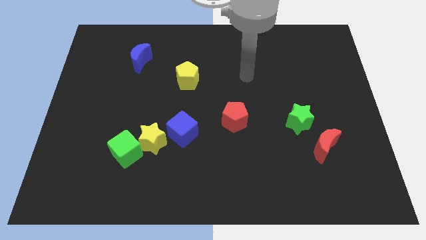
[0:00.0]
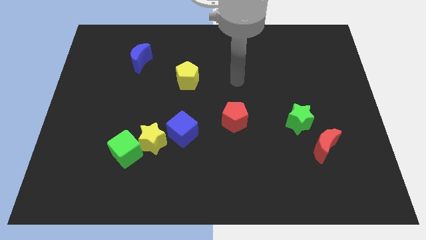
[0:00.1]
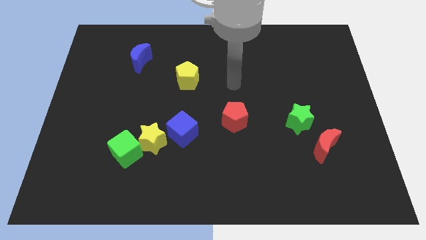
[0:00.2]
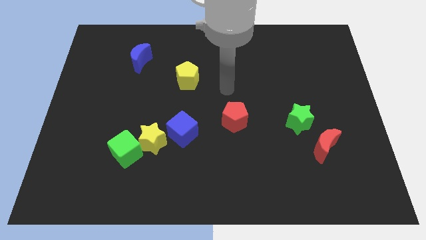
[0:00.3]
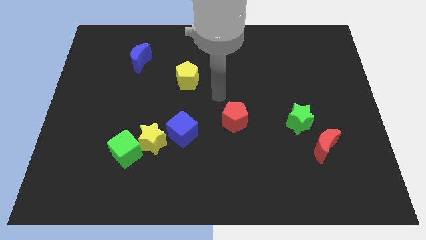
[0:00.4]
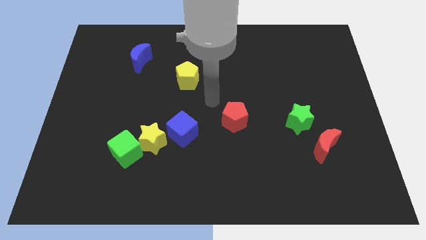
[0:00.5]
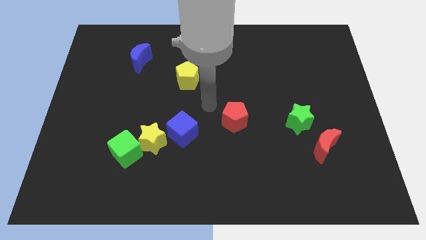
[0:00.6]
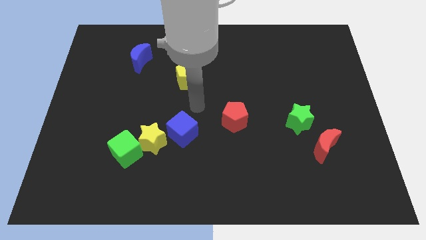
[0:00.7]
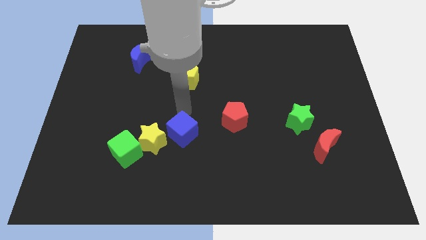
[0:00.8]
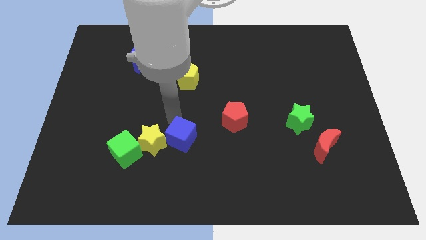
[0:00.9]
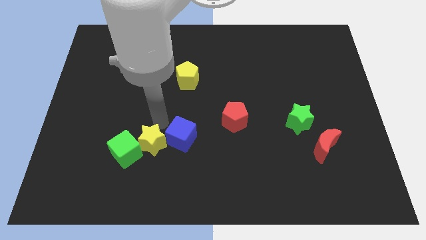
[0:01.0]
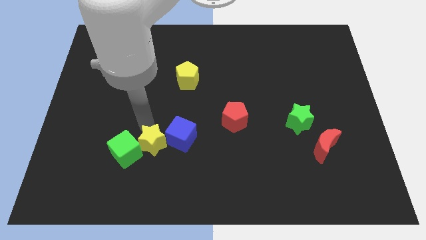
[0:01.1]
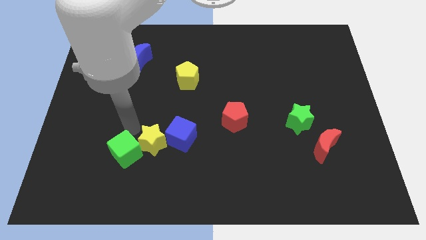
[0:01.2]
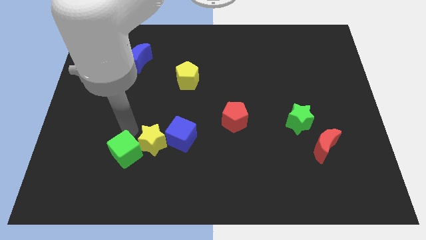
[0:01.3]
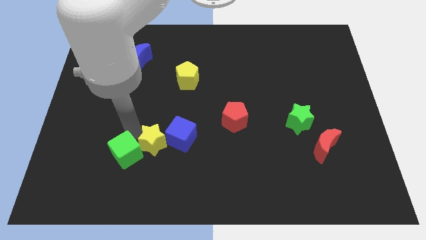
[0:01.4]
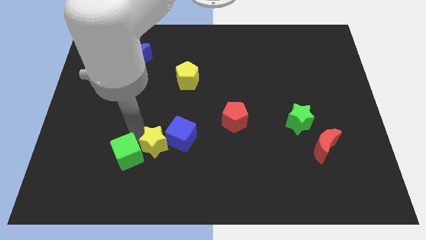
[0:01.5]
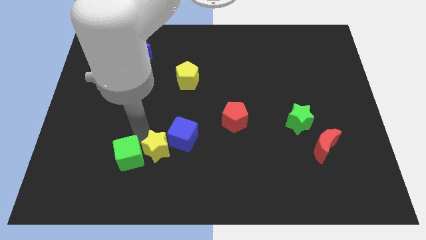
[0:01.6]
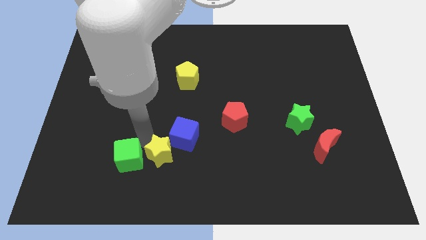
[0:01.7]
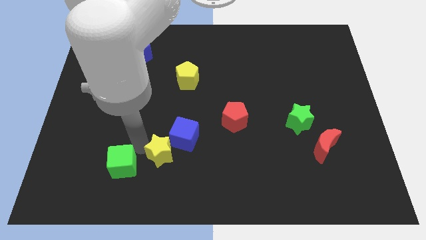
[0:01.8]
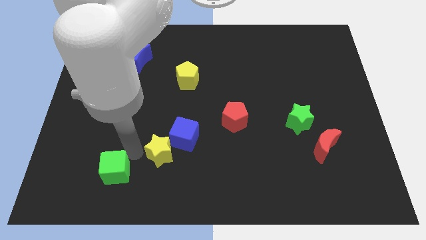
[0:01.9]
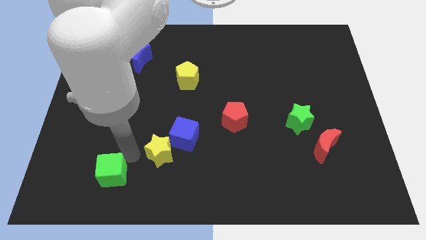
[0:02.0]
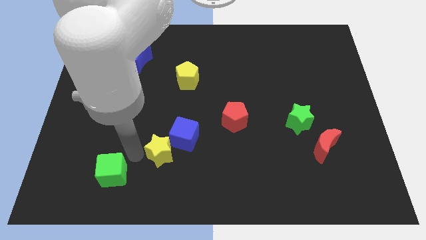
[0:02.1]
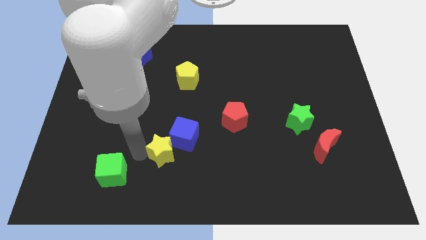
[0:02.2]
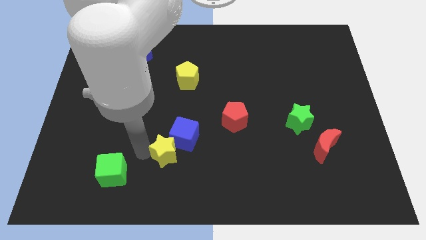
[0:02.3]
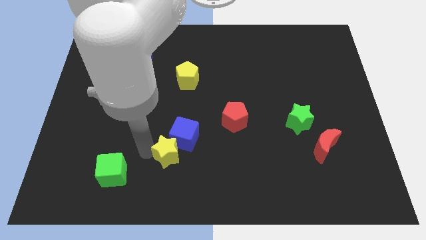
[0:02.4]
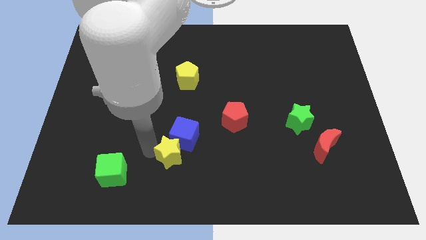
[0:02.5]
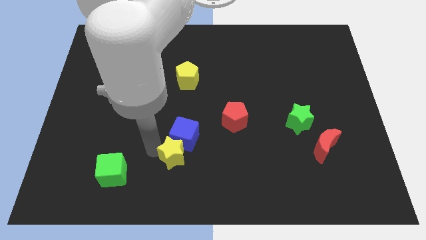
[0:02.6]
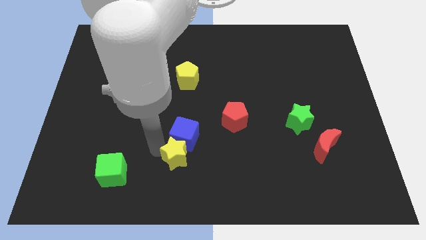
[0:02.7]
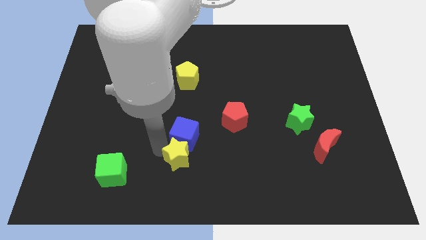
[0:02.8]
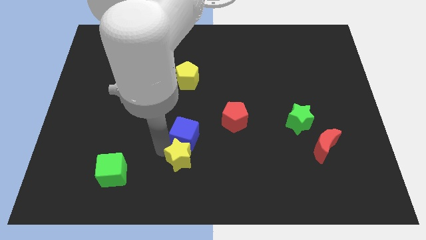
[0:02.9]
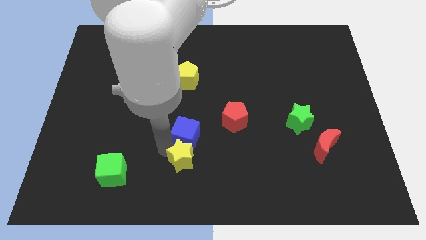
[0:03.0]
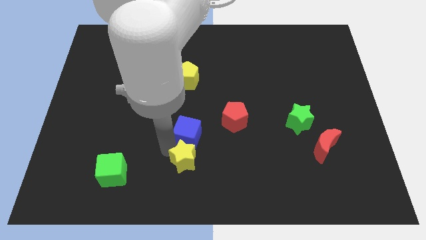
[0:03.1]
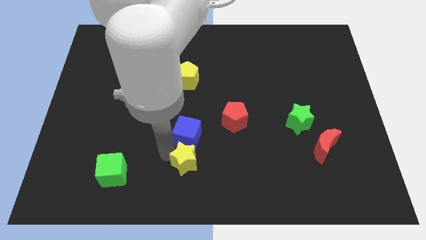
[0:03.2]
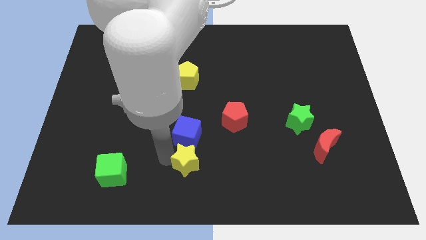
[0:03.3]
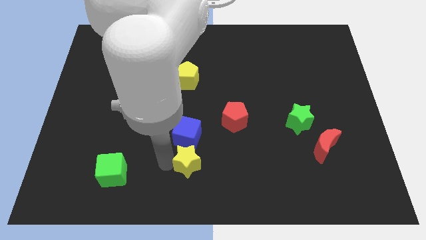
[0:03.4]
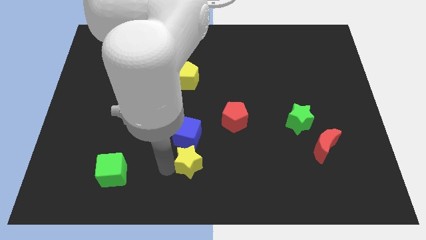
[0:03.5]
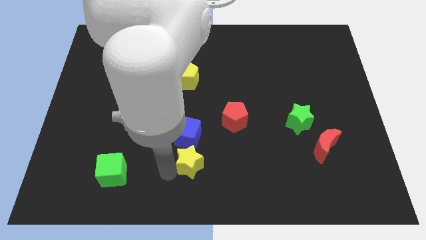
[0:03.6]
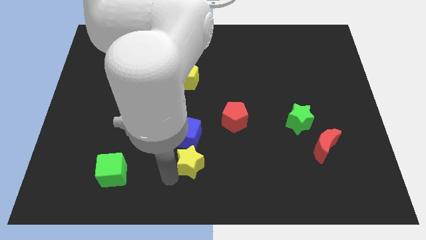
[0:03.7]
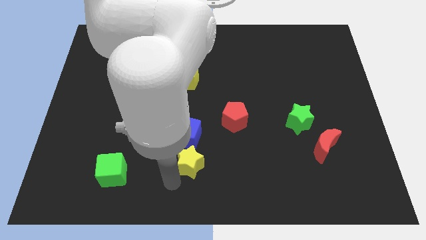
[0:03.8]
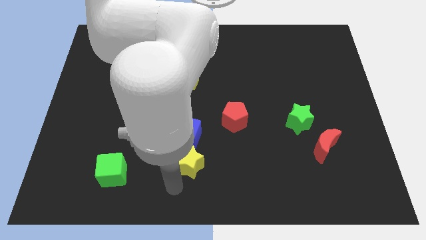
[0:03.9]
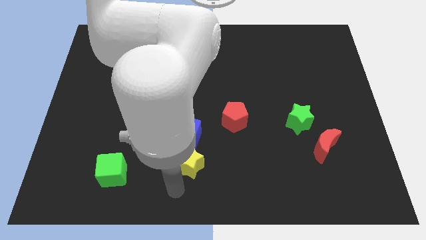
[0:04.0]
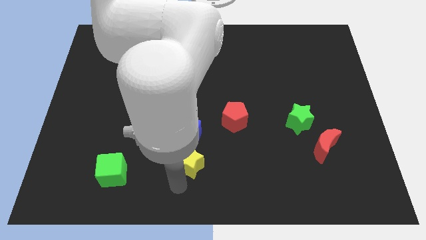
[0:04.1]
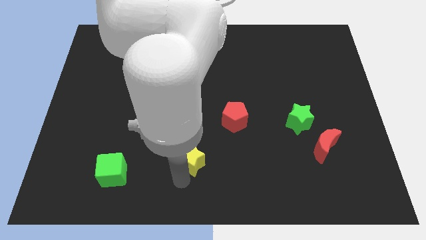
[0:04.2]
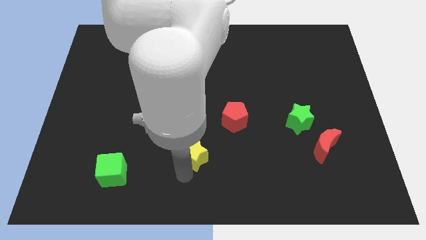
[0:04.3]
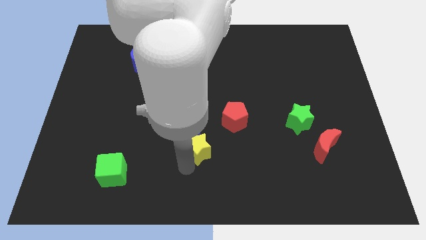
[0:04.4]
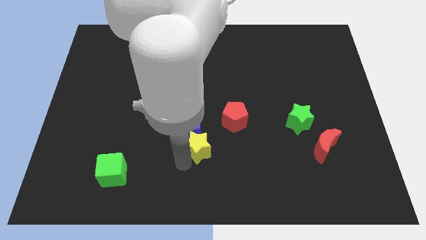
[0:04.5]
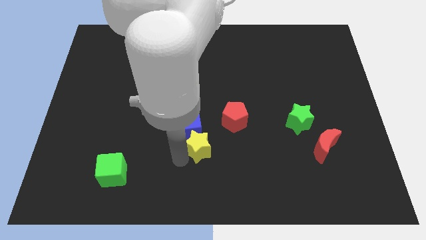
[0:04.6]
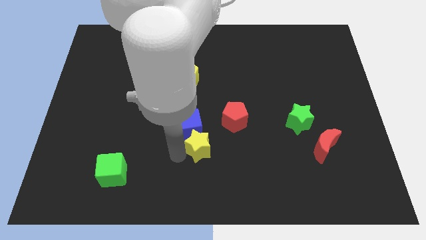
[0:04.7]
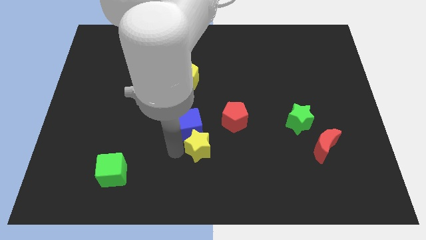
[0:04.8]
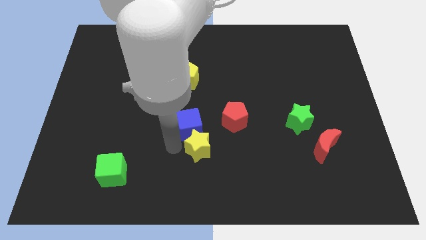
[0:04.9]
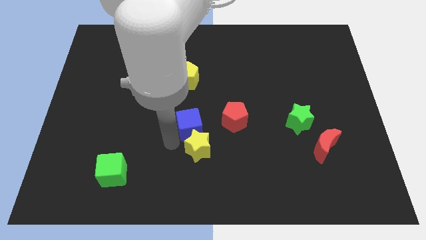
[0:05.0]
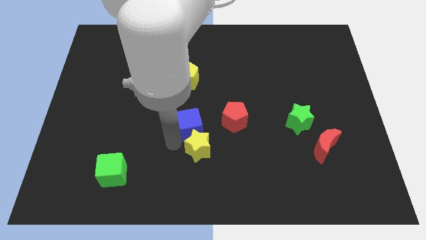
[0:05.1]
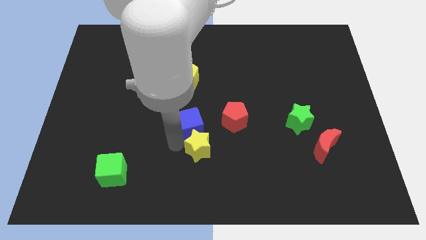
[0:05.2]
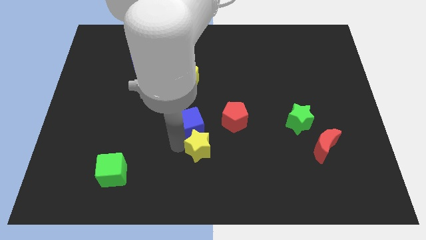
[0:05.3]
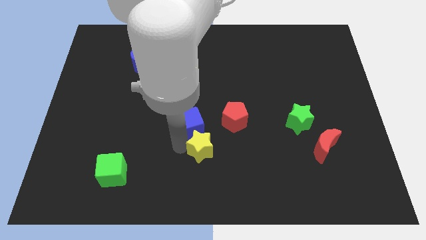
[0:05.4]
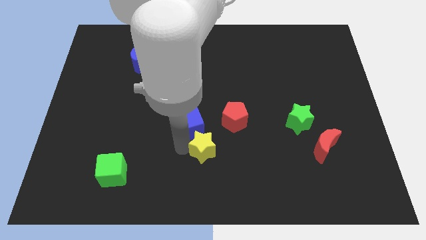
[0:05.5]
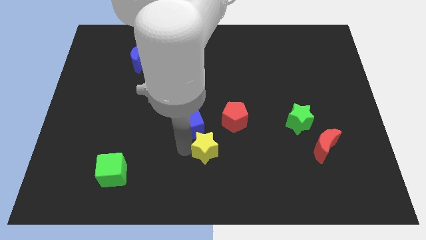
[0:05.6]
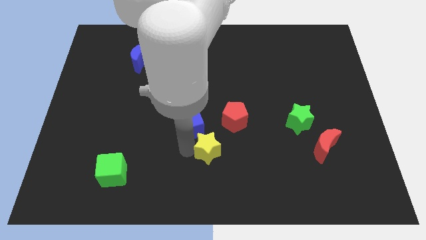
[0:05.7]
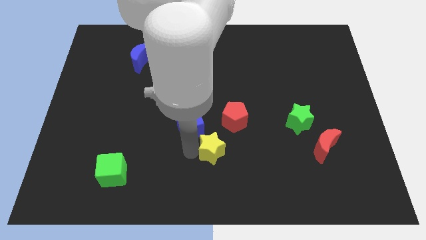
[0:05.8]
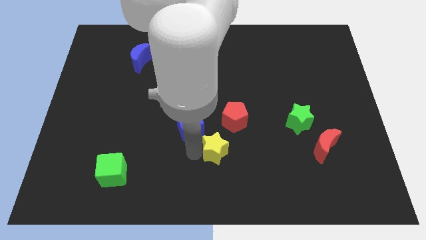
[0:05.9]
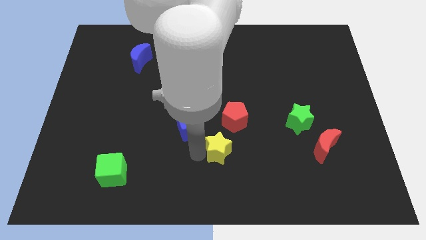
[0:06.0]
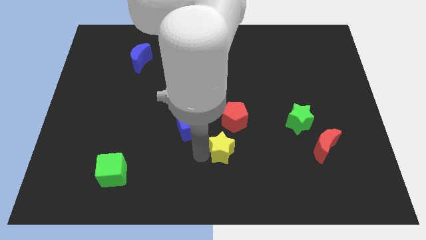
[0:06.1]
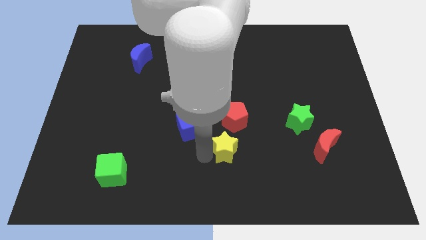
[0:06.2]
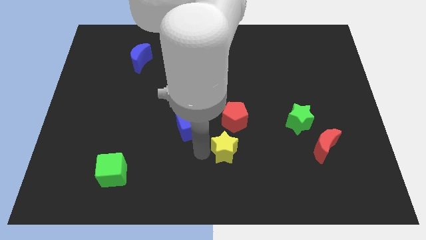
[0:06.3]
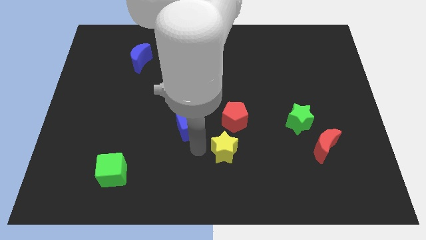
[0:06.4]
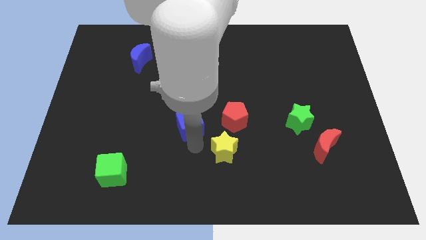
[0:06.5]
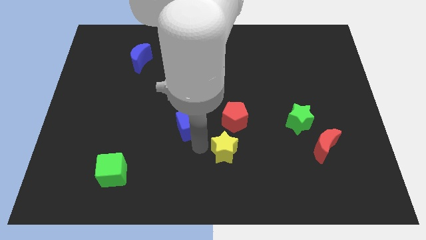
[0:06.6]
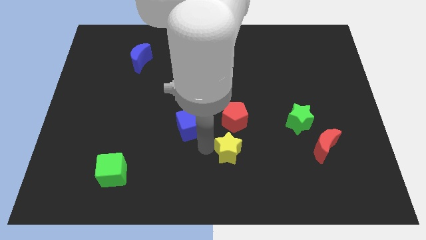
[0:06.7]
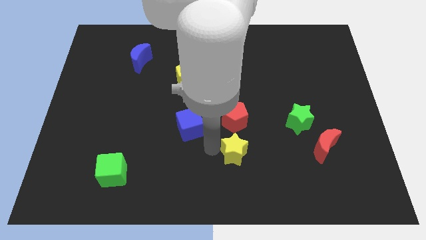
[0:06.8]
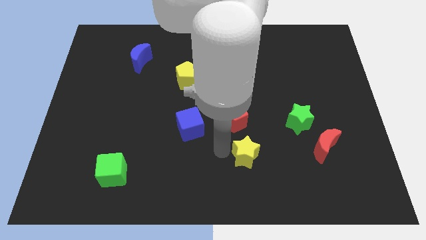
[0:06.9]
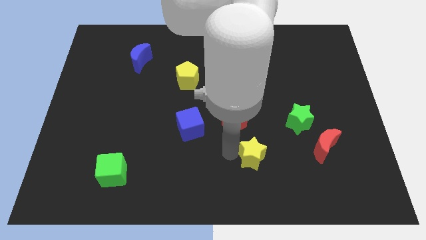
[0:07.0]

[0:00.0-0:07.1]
push the yellow star to the right

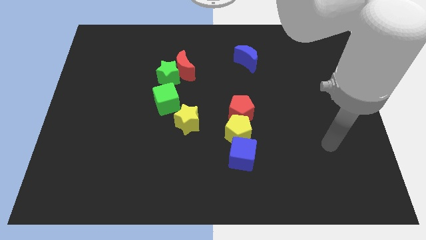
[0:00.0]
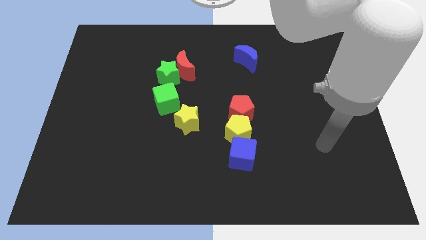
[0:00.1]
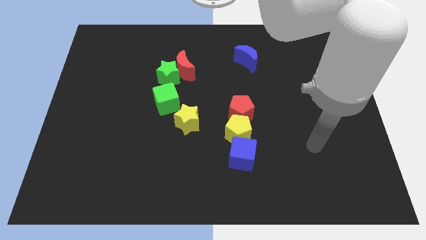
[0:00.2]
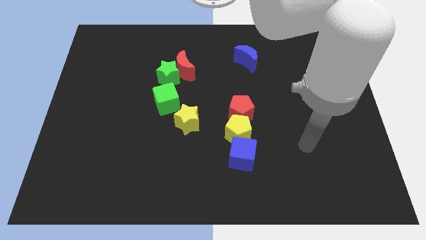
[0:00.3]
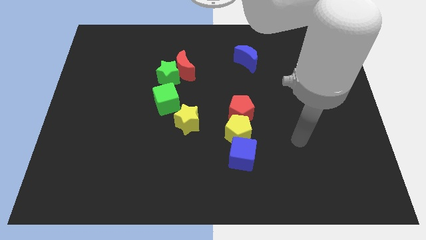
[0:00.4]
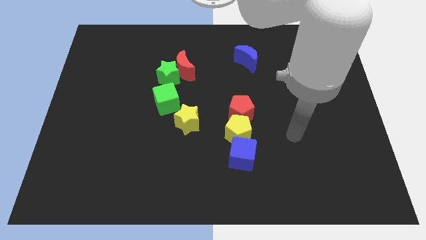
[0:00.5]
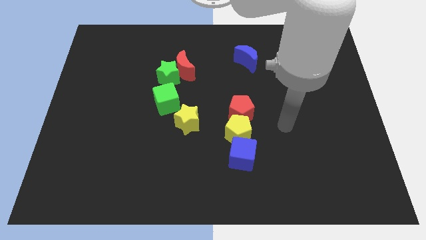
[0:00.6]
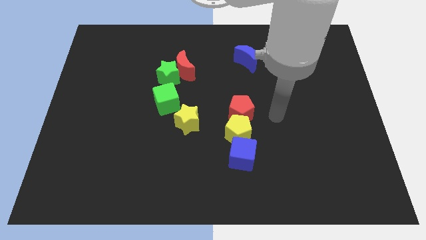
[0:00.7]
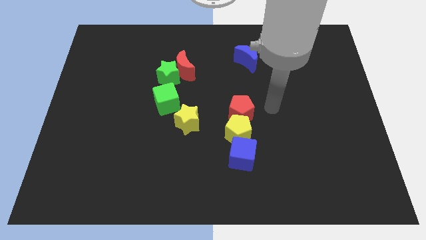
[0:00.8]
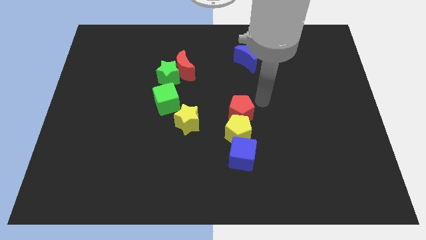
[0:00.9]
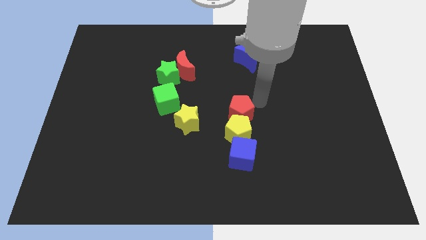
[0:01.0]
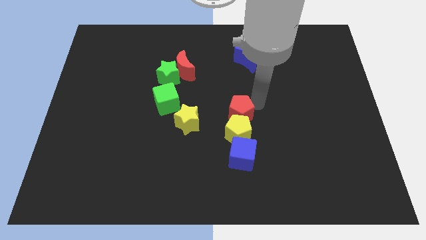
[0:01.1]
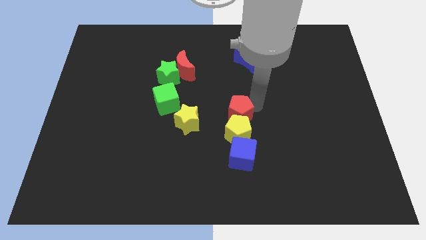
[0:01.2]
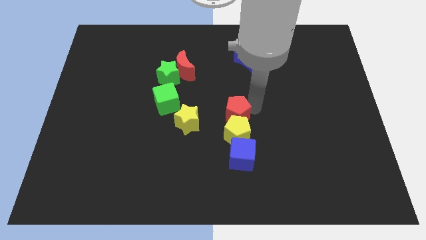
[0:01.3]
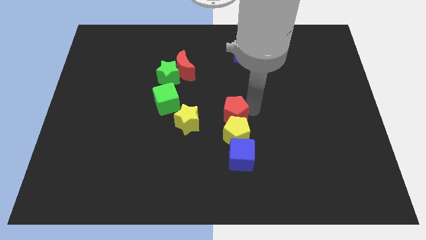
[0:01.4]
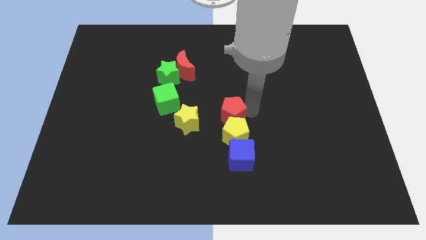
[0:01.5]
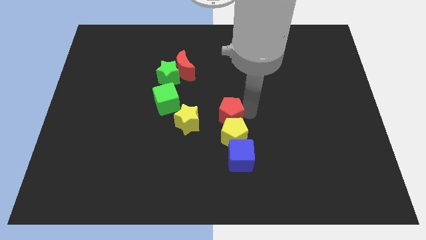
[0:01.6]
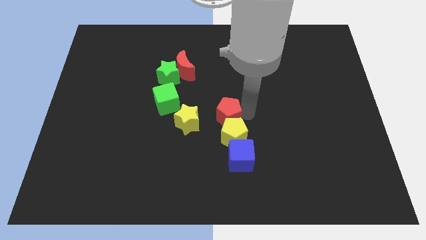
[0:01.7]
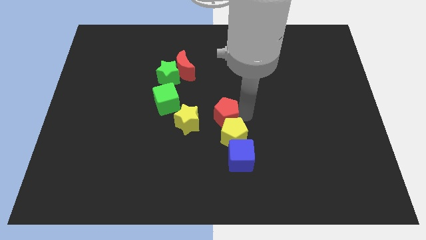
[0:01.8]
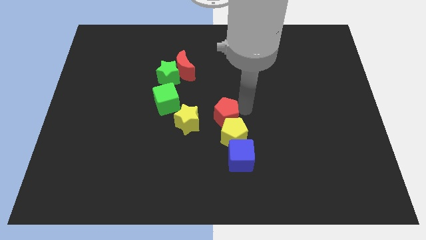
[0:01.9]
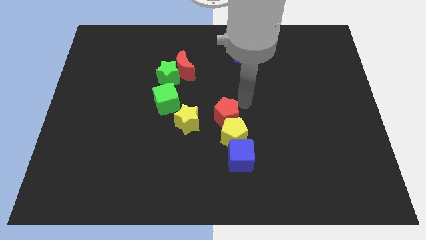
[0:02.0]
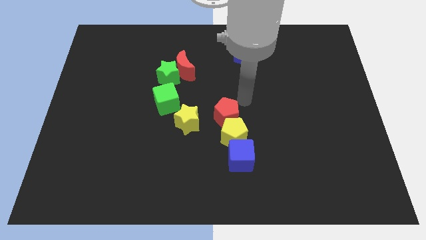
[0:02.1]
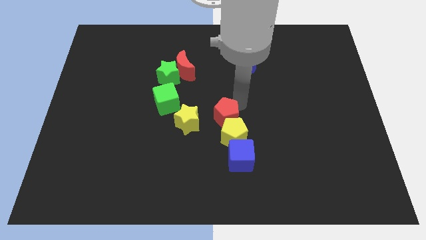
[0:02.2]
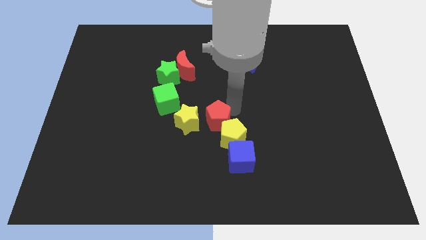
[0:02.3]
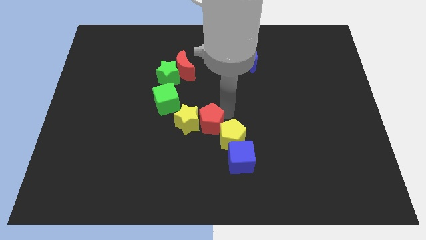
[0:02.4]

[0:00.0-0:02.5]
slightly push the red pentagon to the left
